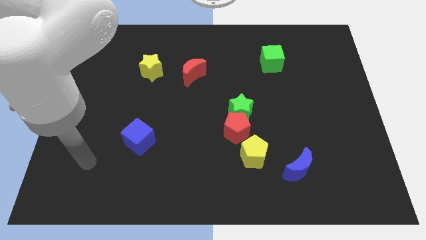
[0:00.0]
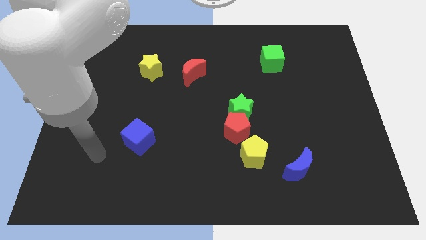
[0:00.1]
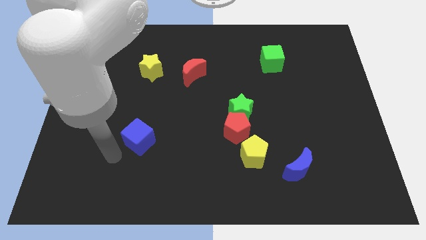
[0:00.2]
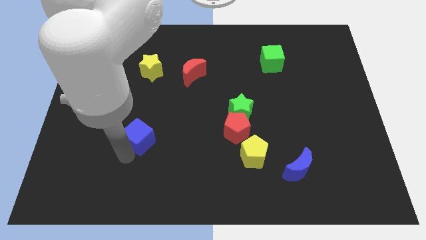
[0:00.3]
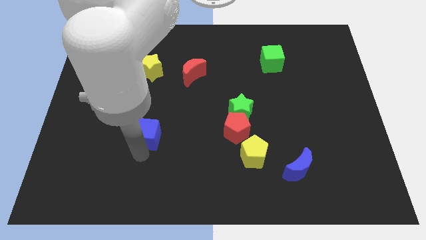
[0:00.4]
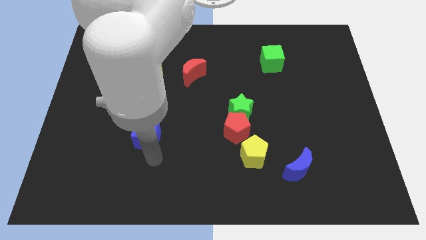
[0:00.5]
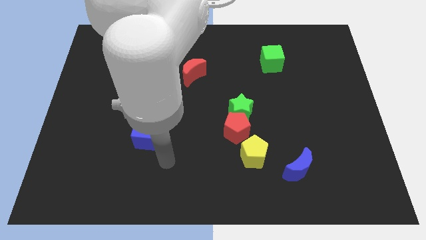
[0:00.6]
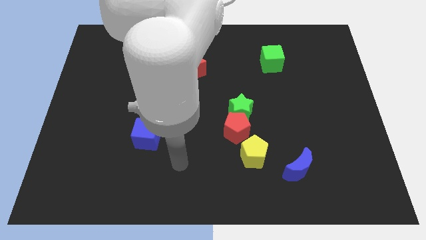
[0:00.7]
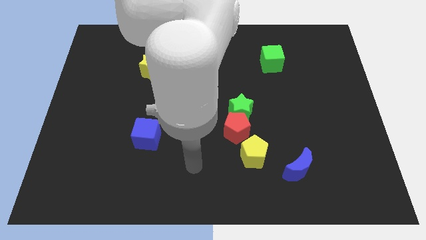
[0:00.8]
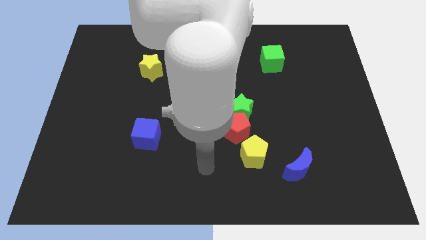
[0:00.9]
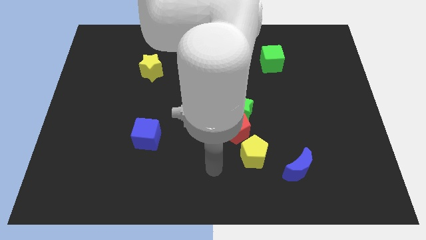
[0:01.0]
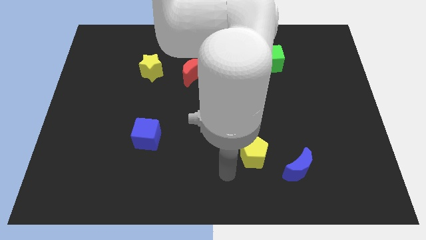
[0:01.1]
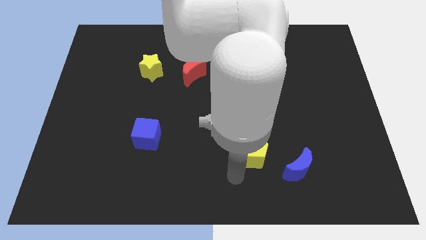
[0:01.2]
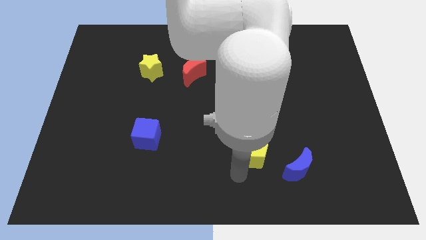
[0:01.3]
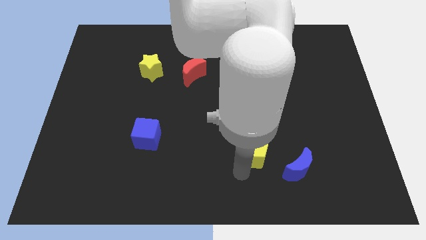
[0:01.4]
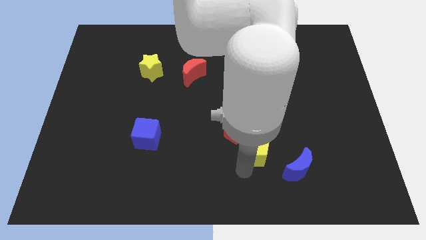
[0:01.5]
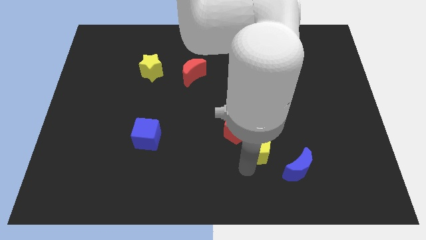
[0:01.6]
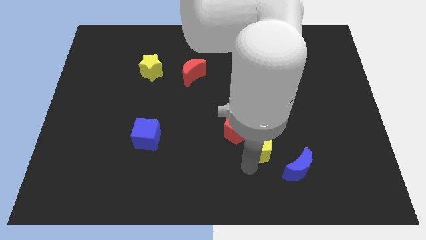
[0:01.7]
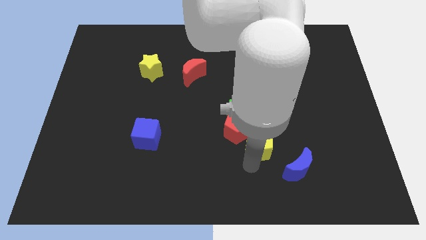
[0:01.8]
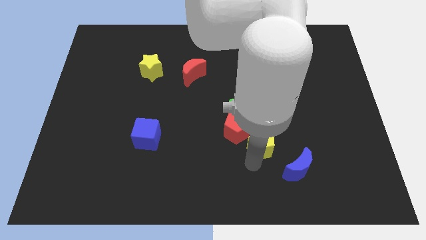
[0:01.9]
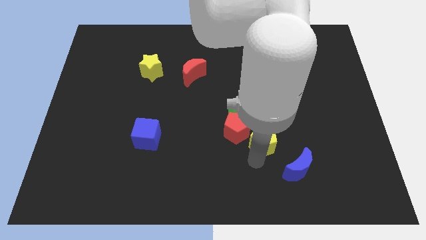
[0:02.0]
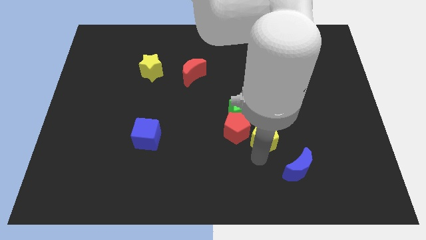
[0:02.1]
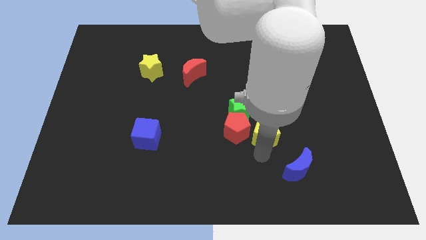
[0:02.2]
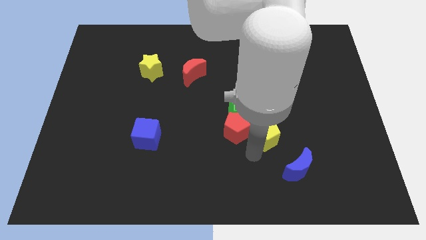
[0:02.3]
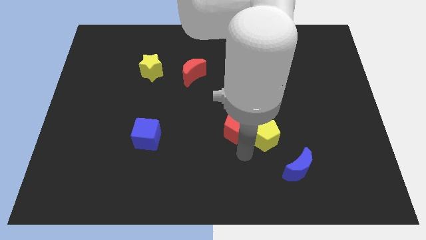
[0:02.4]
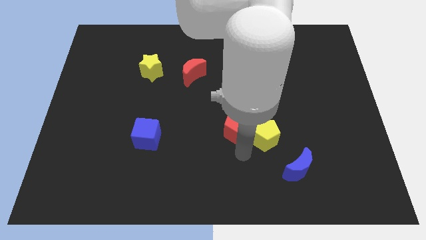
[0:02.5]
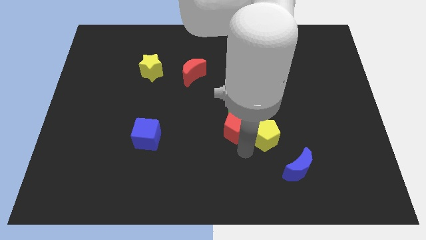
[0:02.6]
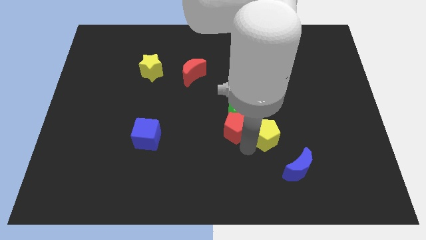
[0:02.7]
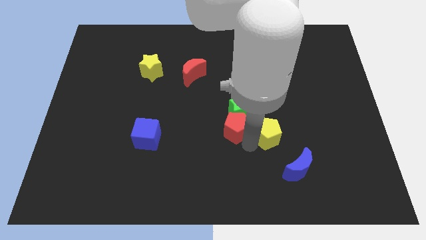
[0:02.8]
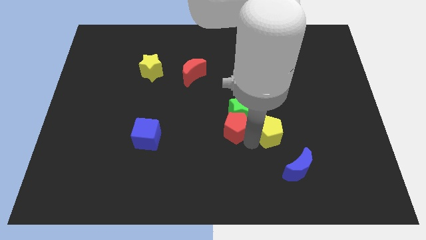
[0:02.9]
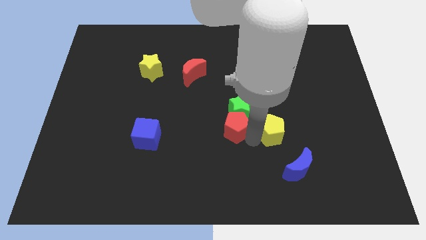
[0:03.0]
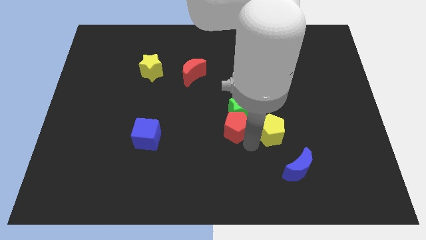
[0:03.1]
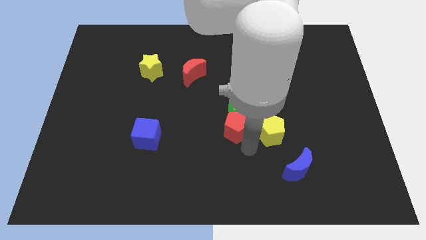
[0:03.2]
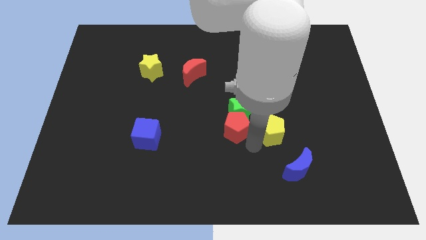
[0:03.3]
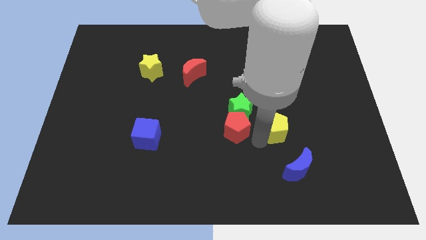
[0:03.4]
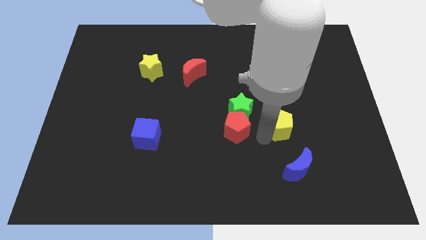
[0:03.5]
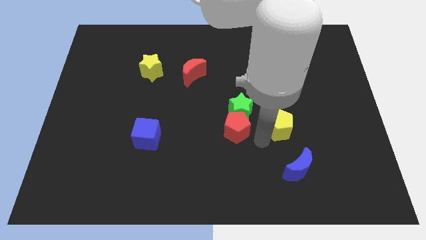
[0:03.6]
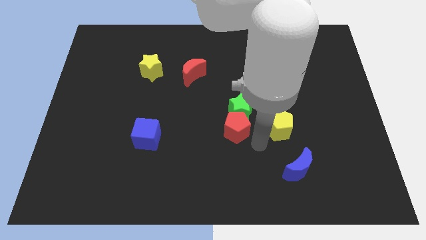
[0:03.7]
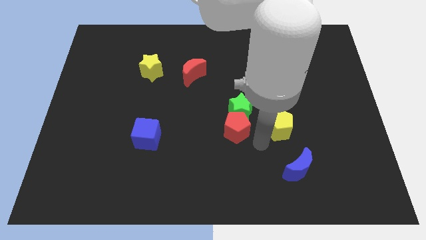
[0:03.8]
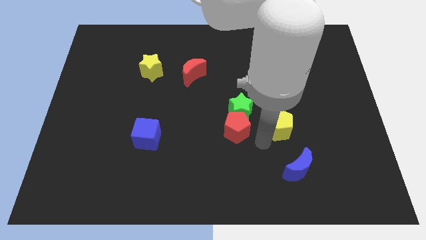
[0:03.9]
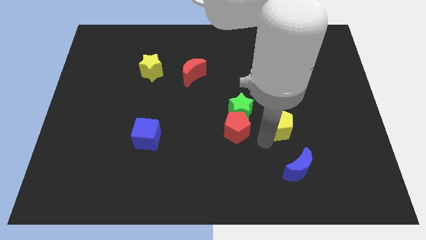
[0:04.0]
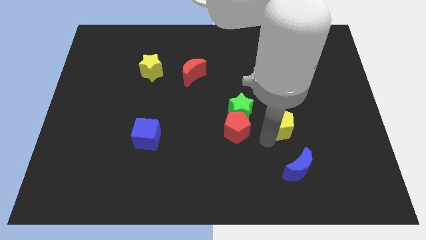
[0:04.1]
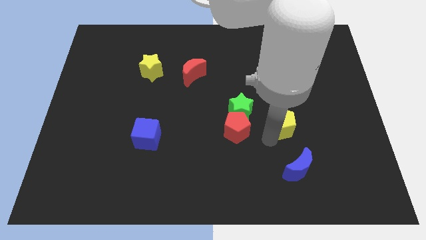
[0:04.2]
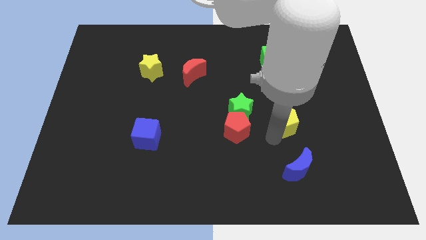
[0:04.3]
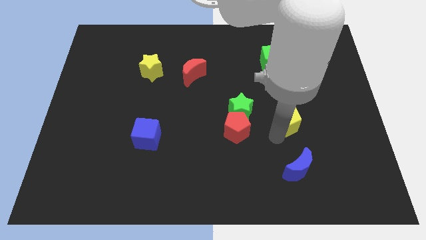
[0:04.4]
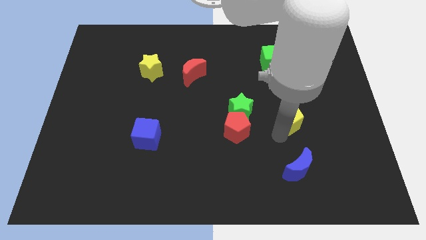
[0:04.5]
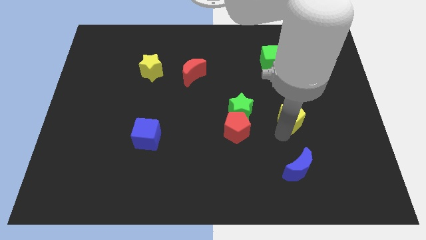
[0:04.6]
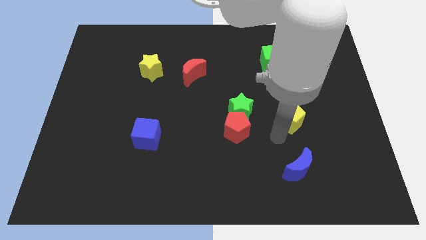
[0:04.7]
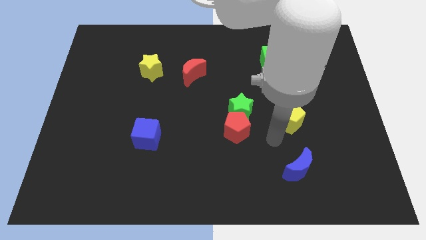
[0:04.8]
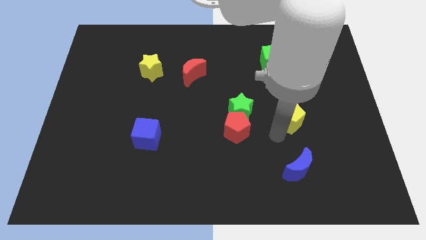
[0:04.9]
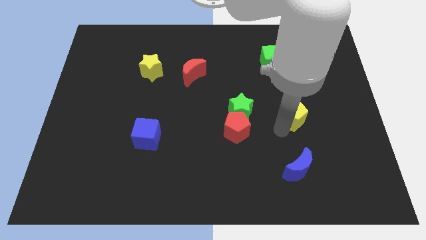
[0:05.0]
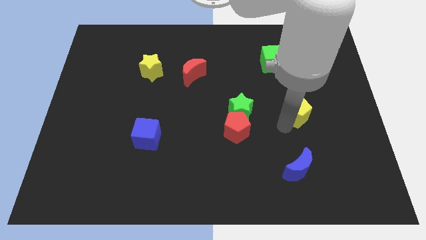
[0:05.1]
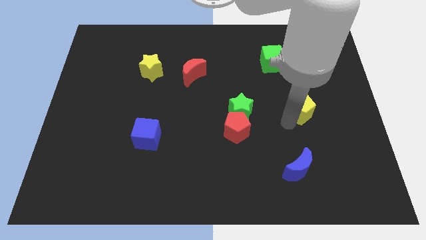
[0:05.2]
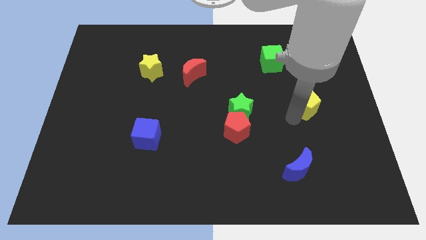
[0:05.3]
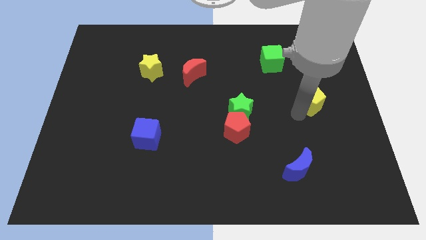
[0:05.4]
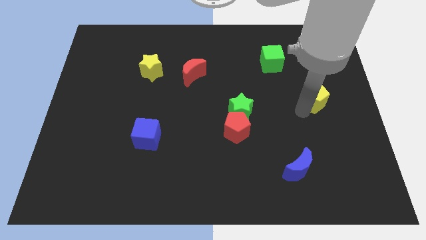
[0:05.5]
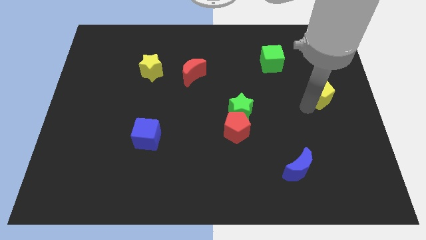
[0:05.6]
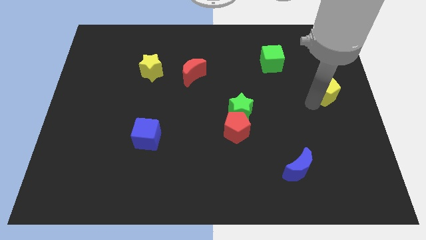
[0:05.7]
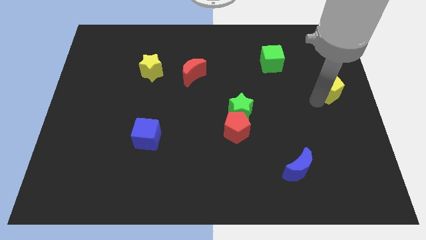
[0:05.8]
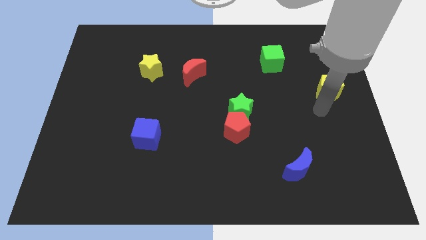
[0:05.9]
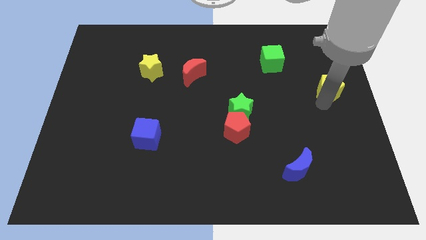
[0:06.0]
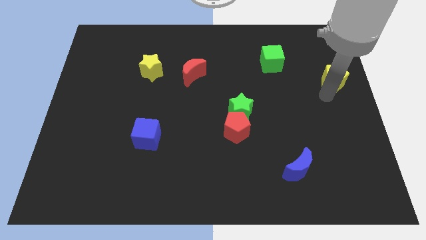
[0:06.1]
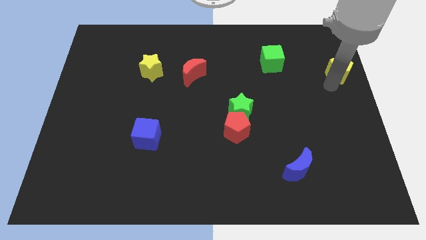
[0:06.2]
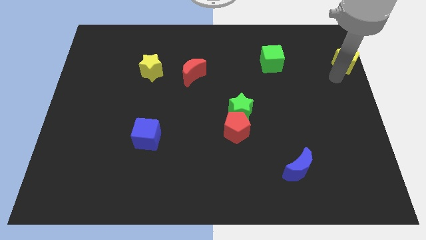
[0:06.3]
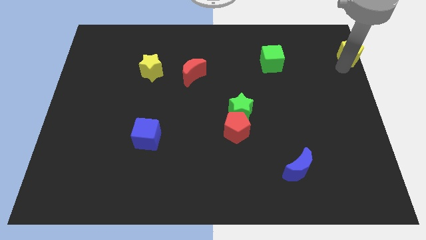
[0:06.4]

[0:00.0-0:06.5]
push the yellow pentagon to the upper right corner

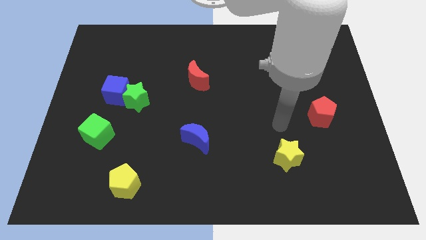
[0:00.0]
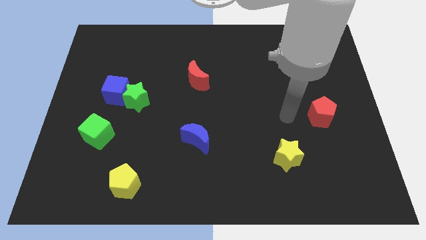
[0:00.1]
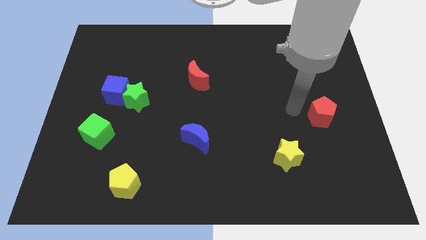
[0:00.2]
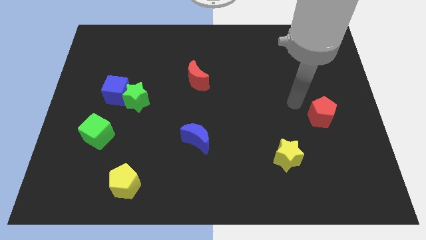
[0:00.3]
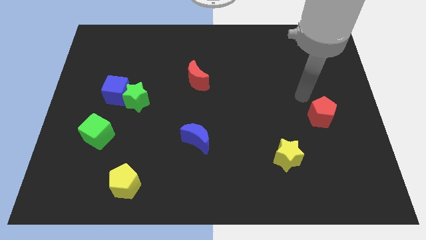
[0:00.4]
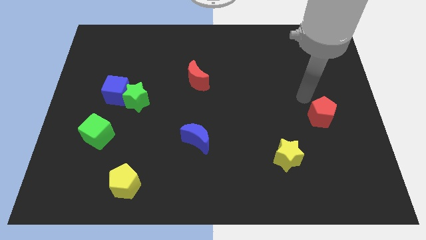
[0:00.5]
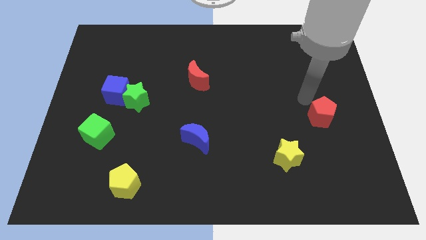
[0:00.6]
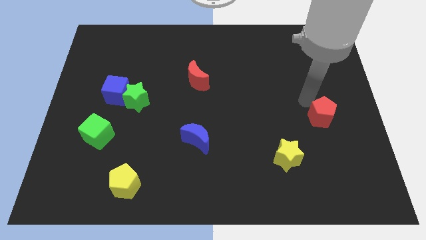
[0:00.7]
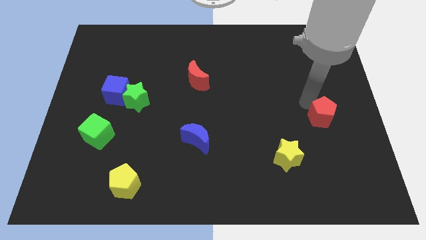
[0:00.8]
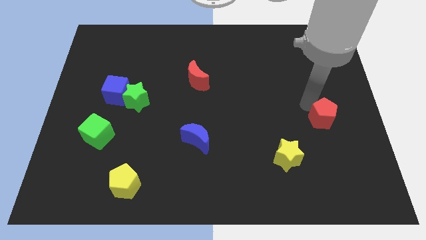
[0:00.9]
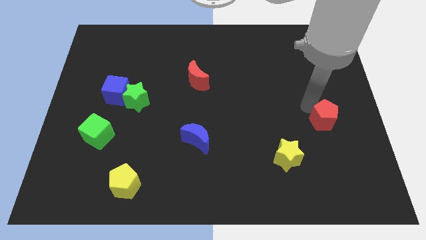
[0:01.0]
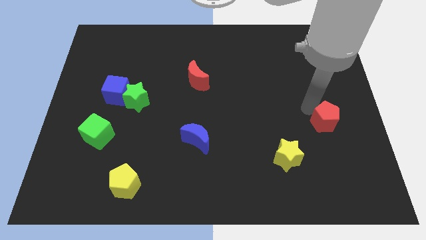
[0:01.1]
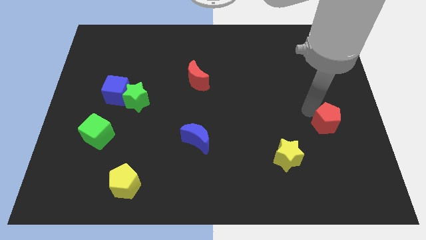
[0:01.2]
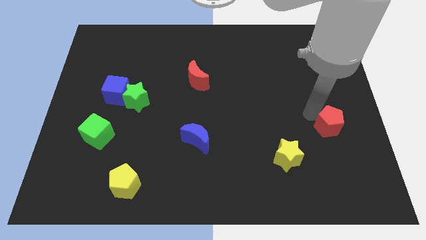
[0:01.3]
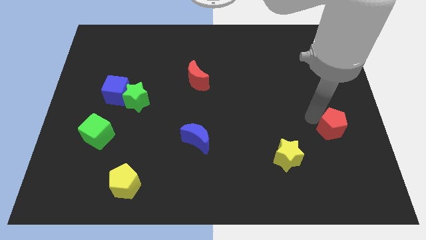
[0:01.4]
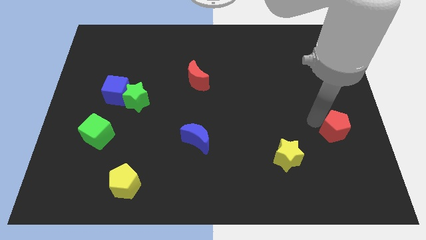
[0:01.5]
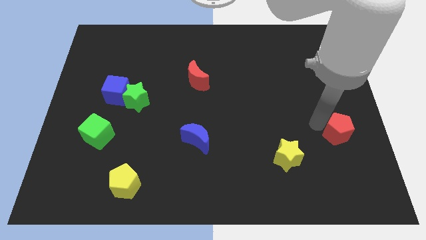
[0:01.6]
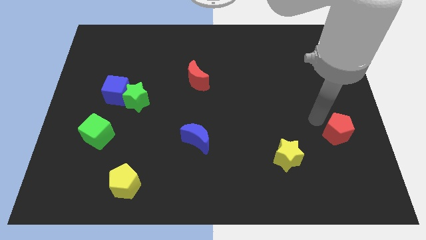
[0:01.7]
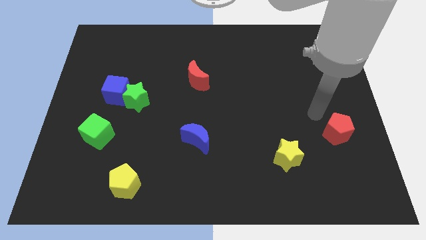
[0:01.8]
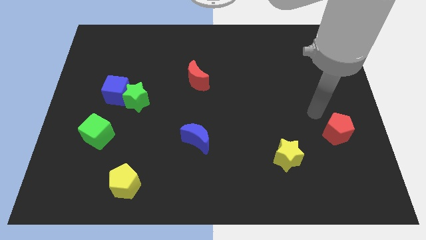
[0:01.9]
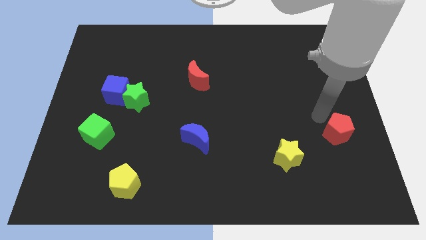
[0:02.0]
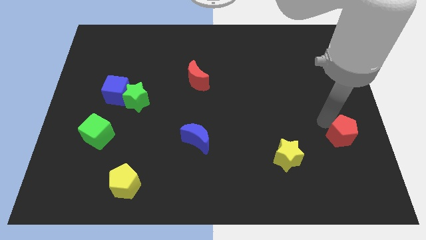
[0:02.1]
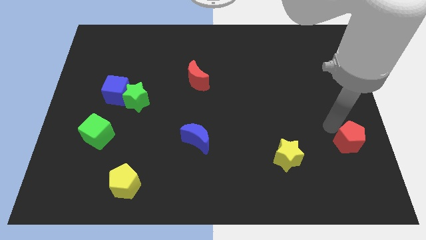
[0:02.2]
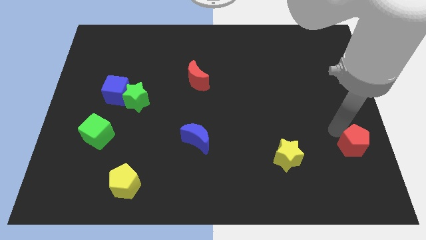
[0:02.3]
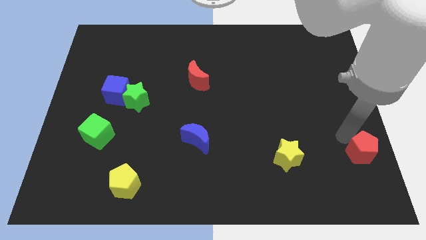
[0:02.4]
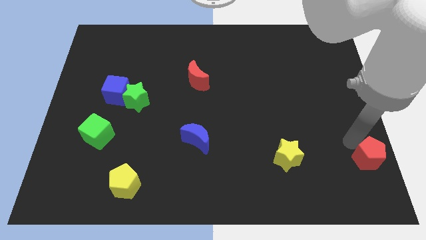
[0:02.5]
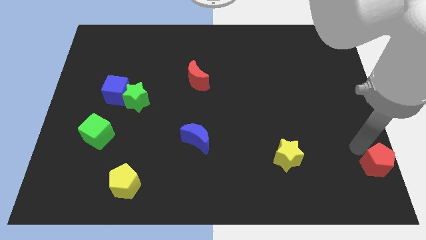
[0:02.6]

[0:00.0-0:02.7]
move the red pentagon to the bottom right corner
